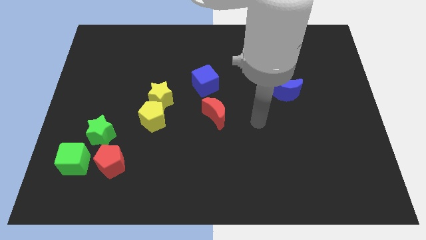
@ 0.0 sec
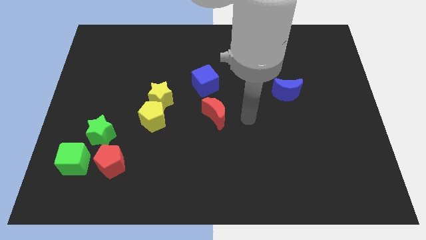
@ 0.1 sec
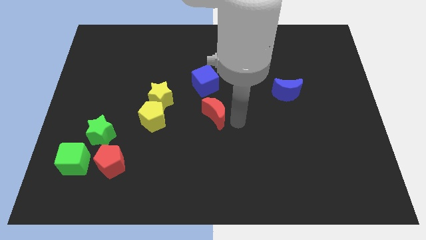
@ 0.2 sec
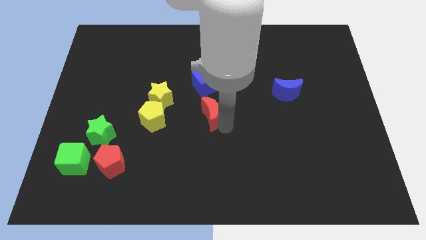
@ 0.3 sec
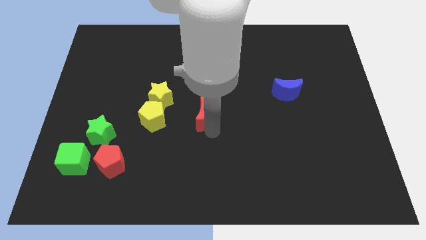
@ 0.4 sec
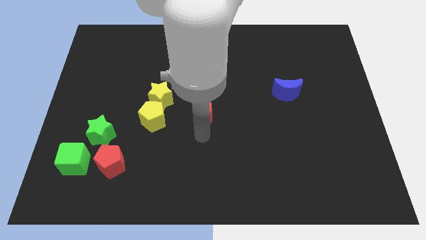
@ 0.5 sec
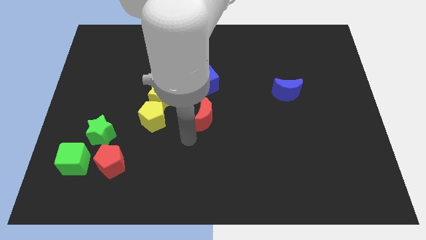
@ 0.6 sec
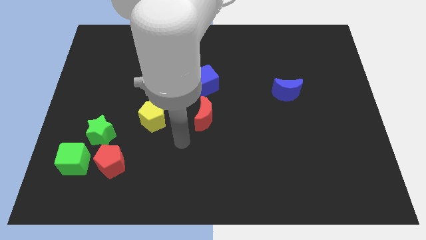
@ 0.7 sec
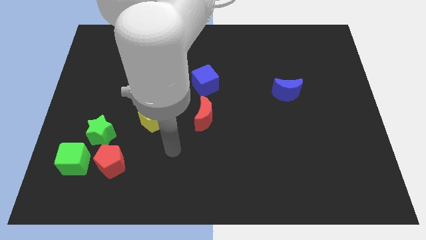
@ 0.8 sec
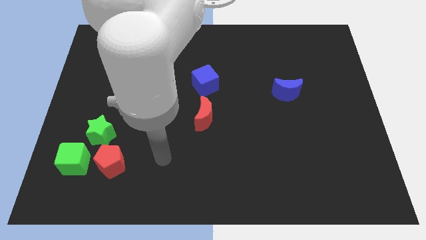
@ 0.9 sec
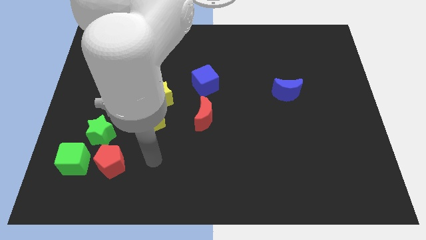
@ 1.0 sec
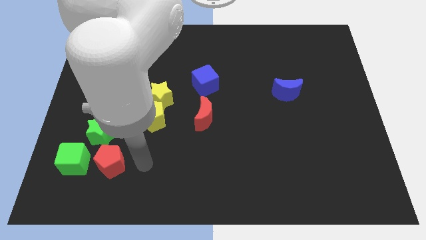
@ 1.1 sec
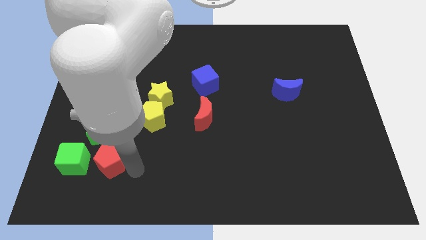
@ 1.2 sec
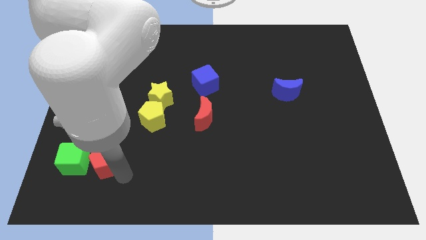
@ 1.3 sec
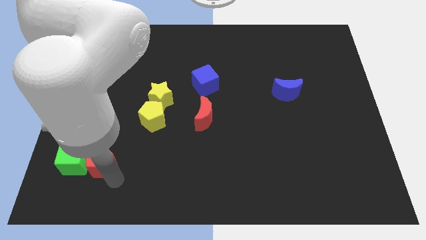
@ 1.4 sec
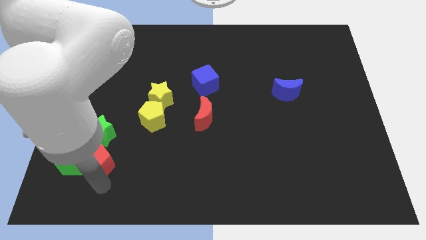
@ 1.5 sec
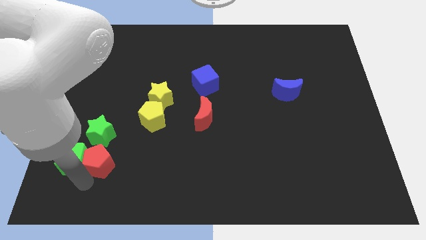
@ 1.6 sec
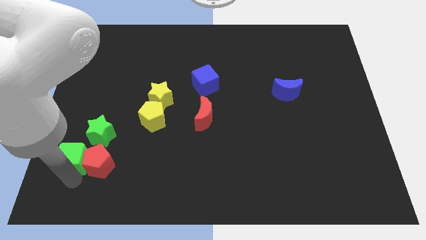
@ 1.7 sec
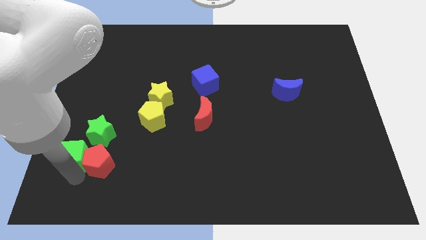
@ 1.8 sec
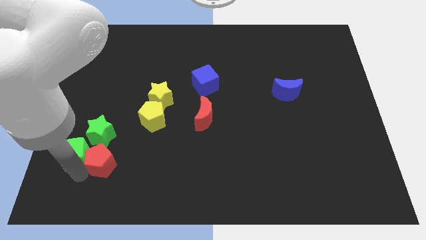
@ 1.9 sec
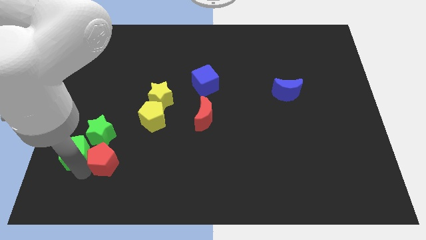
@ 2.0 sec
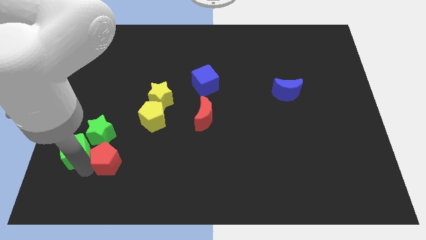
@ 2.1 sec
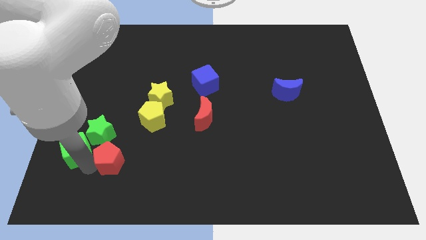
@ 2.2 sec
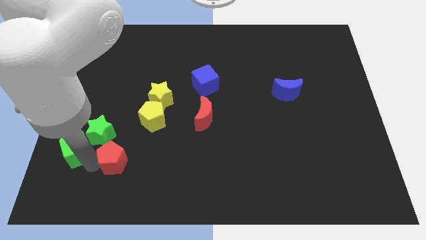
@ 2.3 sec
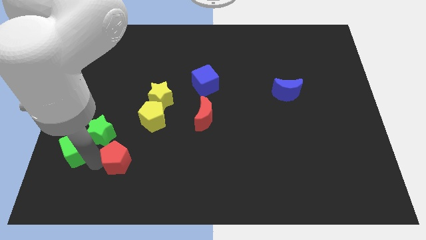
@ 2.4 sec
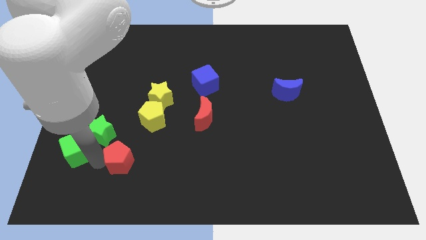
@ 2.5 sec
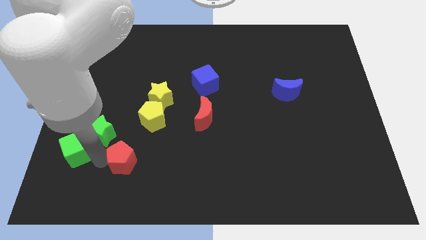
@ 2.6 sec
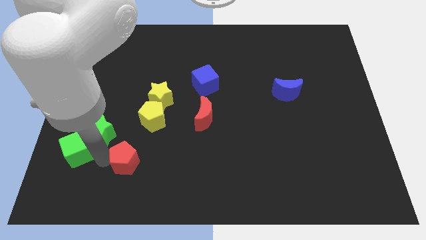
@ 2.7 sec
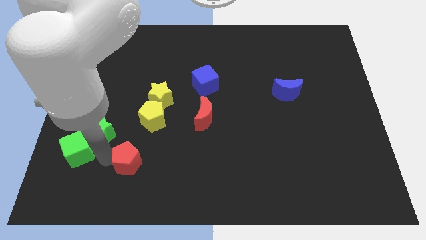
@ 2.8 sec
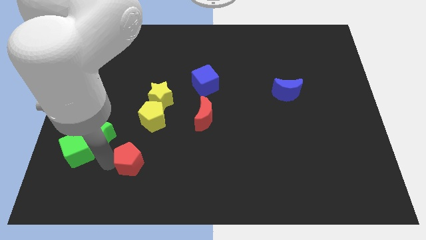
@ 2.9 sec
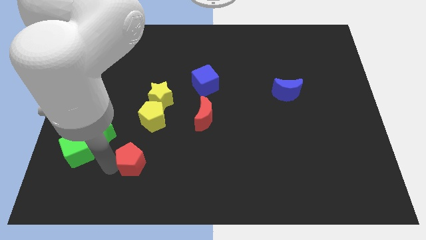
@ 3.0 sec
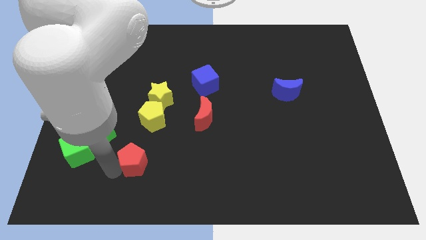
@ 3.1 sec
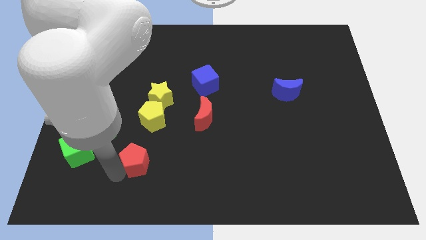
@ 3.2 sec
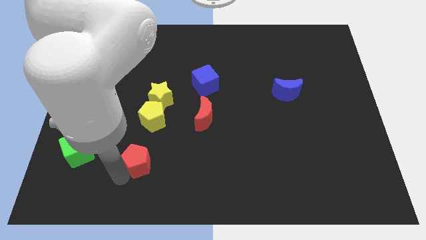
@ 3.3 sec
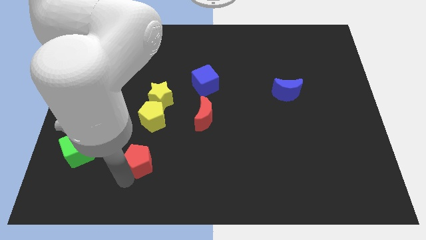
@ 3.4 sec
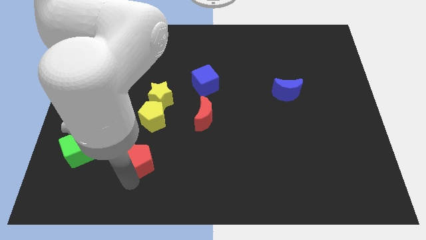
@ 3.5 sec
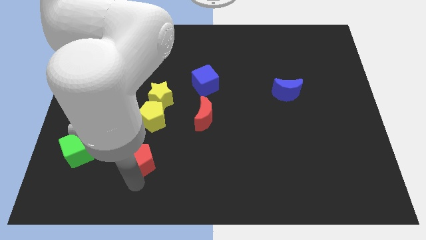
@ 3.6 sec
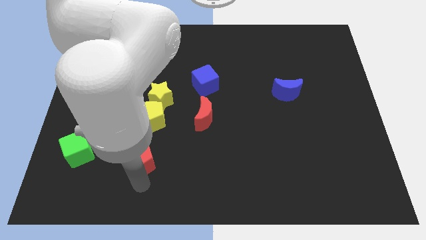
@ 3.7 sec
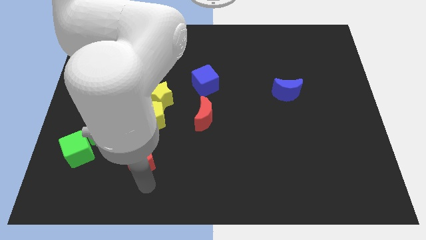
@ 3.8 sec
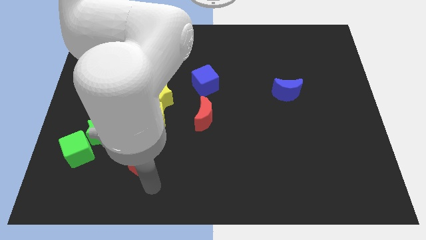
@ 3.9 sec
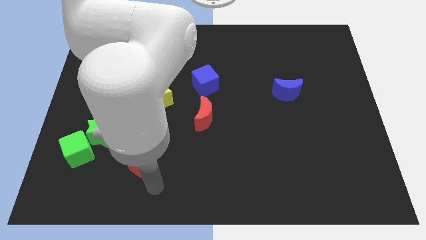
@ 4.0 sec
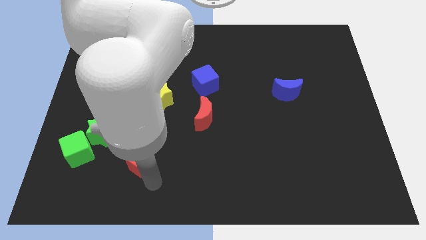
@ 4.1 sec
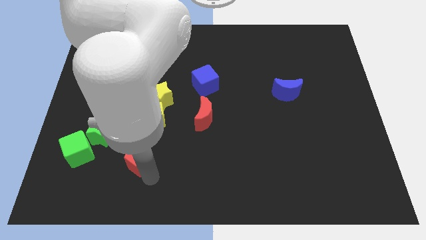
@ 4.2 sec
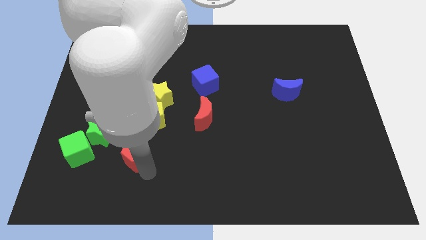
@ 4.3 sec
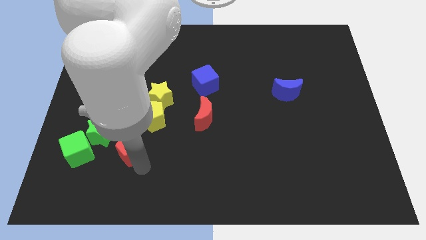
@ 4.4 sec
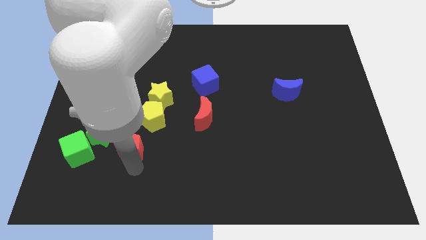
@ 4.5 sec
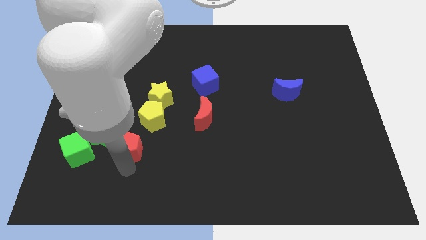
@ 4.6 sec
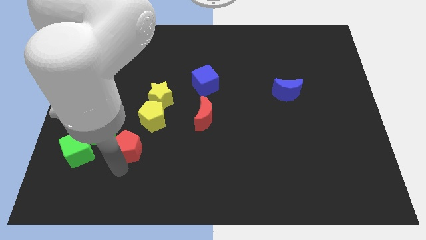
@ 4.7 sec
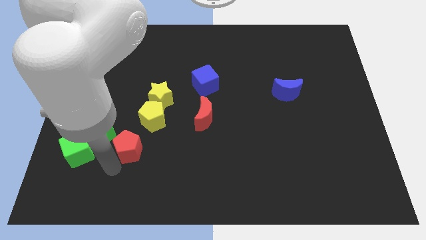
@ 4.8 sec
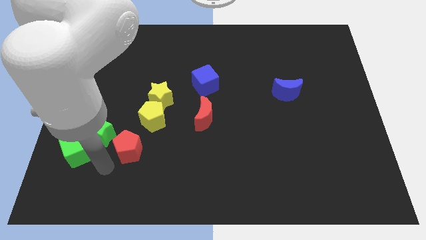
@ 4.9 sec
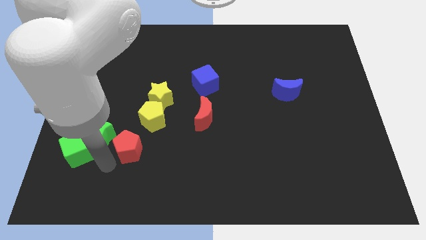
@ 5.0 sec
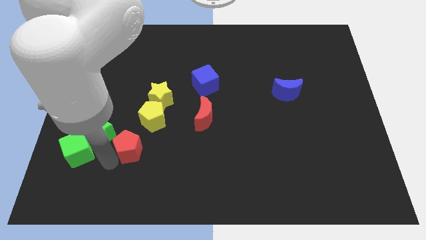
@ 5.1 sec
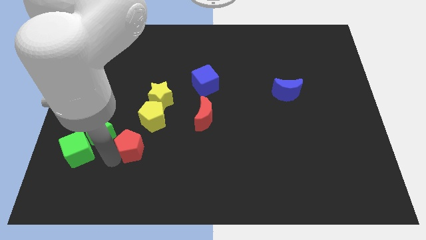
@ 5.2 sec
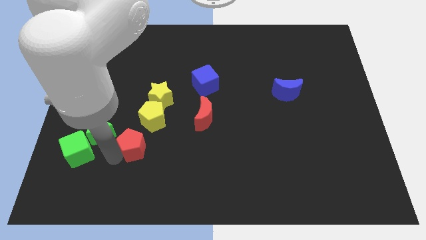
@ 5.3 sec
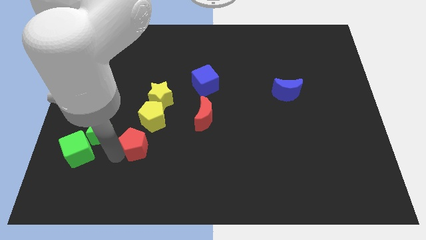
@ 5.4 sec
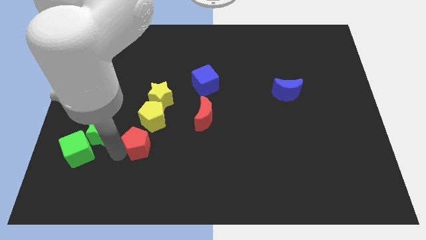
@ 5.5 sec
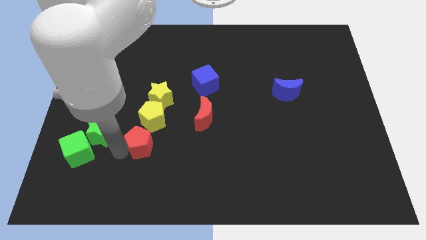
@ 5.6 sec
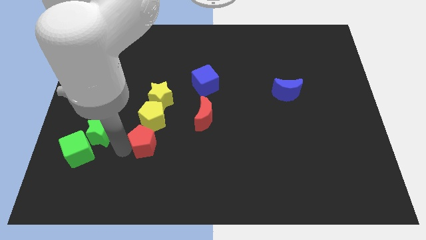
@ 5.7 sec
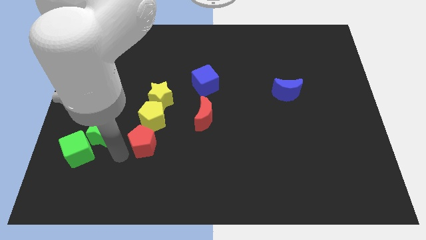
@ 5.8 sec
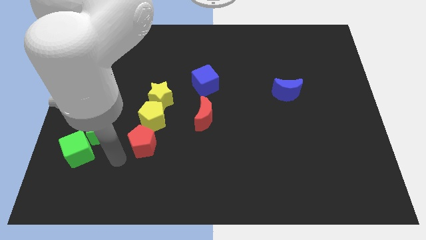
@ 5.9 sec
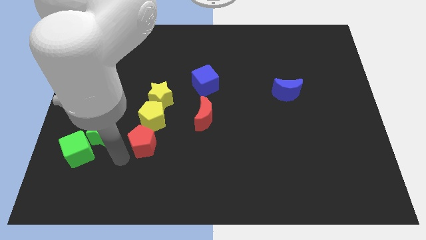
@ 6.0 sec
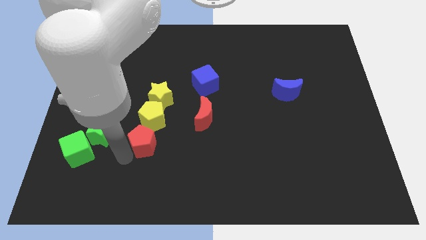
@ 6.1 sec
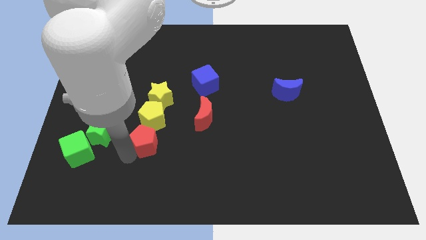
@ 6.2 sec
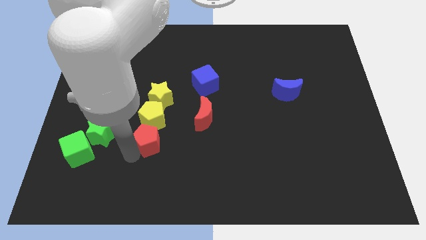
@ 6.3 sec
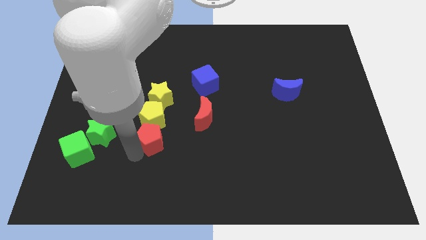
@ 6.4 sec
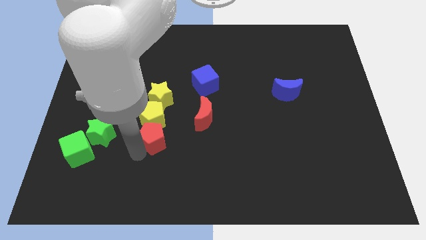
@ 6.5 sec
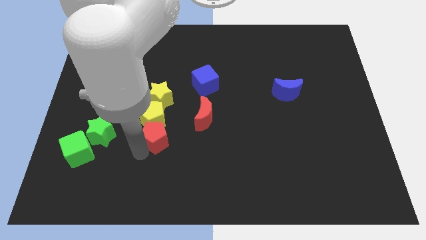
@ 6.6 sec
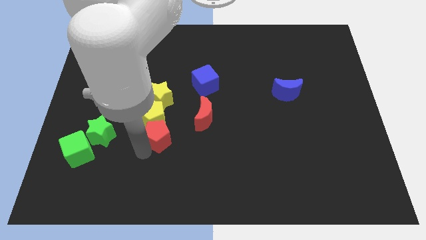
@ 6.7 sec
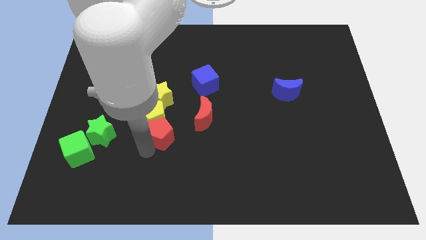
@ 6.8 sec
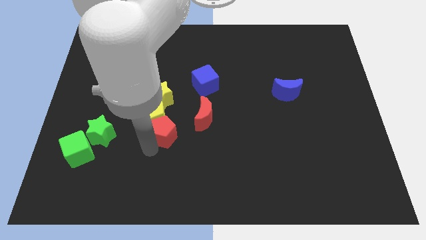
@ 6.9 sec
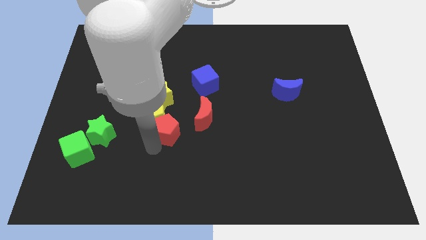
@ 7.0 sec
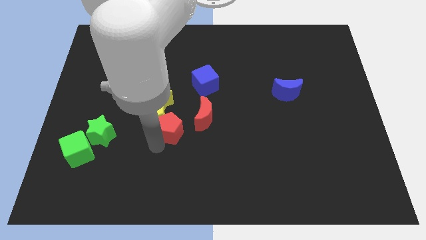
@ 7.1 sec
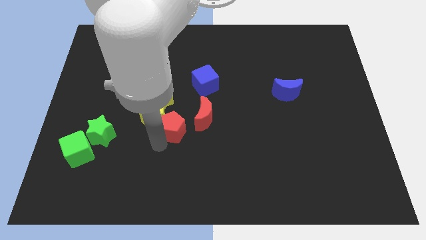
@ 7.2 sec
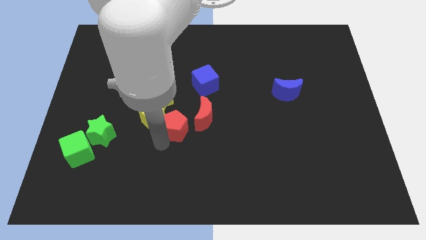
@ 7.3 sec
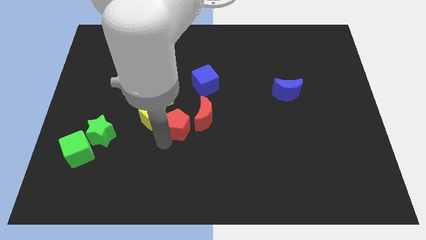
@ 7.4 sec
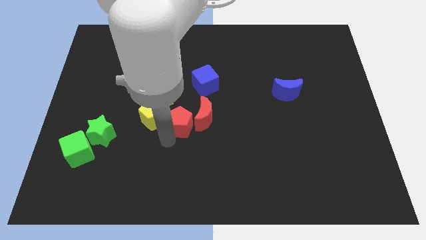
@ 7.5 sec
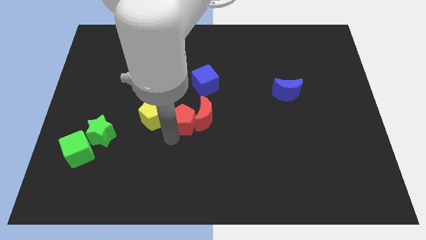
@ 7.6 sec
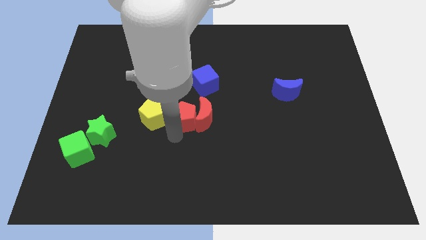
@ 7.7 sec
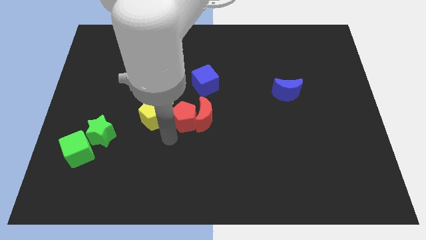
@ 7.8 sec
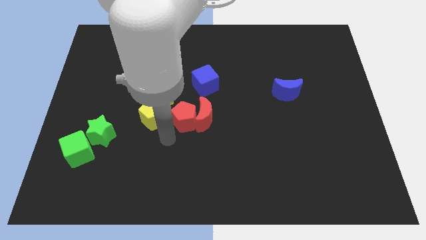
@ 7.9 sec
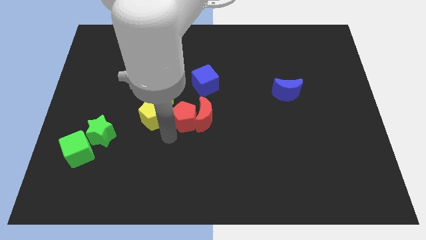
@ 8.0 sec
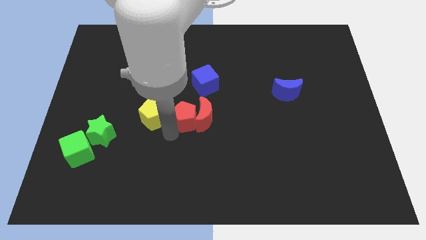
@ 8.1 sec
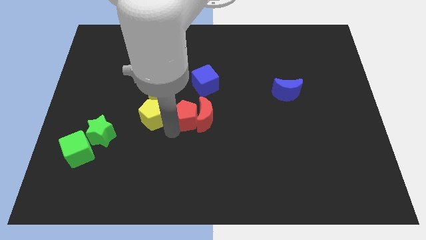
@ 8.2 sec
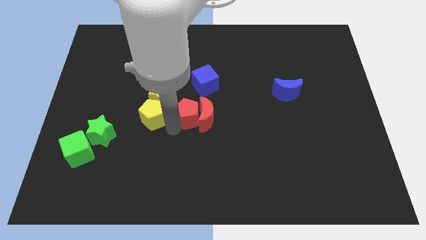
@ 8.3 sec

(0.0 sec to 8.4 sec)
put the red pentagon to the right side of the yellow star
